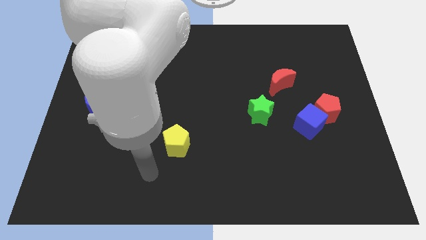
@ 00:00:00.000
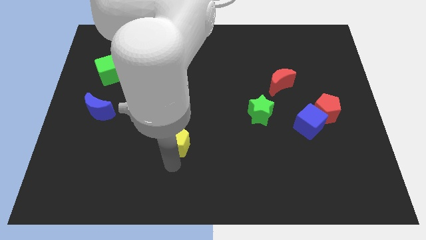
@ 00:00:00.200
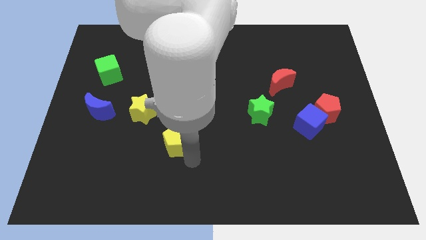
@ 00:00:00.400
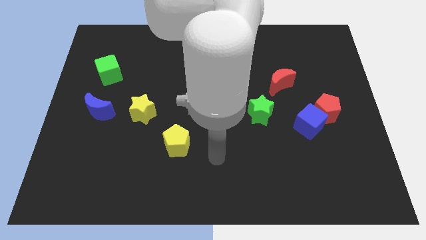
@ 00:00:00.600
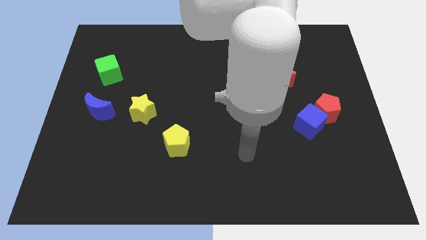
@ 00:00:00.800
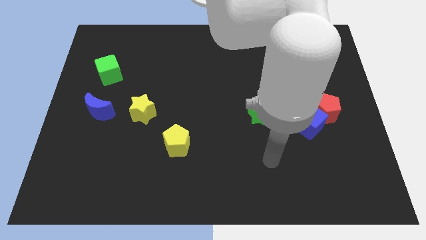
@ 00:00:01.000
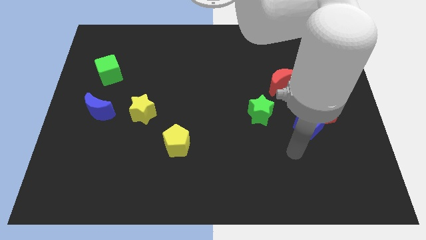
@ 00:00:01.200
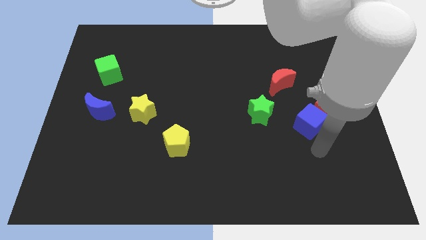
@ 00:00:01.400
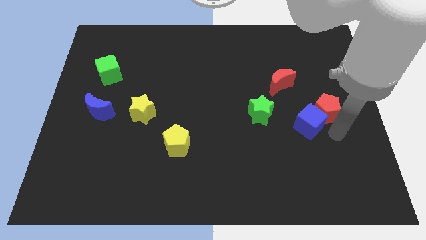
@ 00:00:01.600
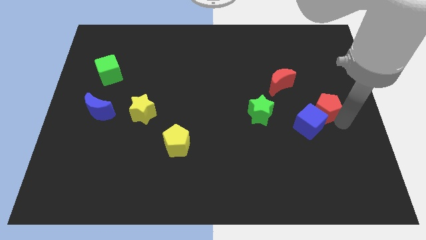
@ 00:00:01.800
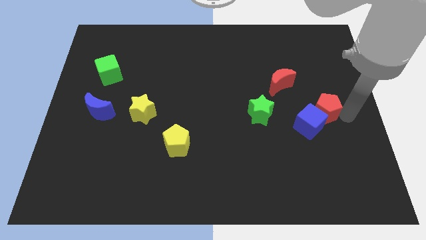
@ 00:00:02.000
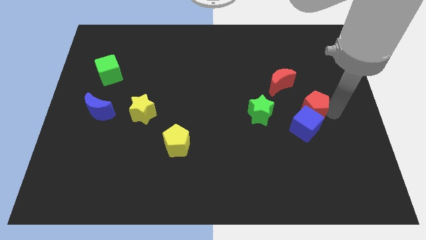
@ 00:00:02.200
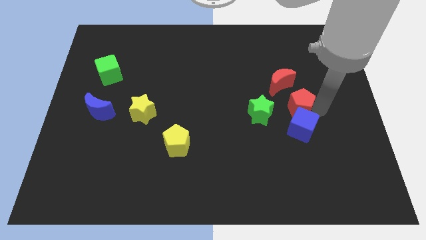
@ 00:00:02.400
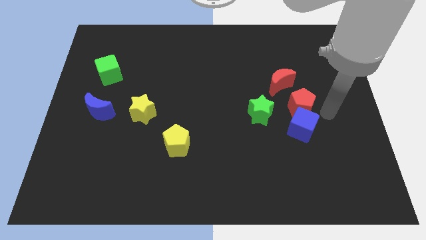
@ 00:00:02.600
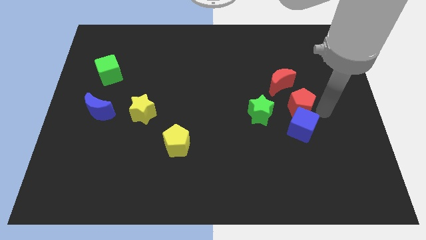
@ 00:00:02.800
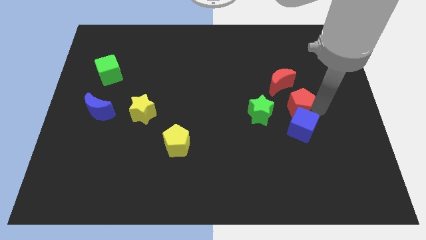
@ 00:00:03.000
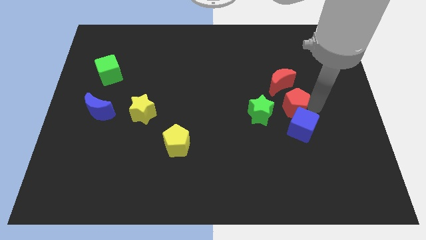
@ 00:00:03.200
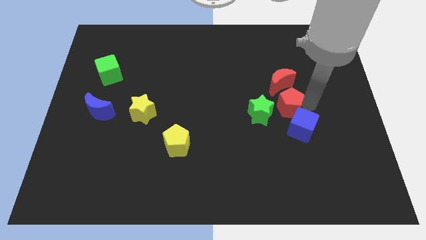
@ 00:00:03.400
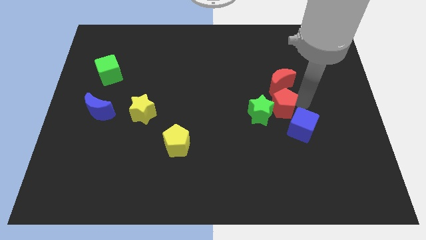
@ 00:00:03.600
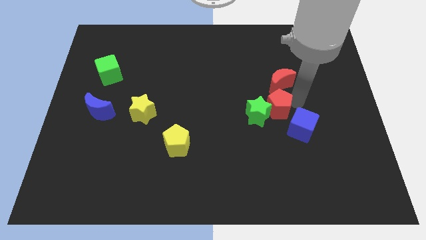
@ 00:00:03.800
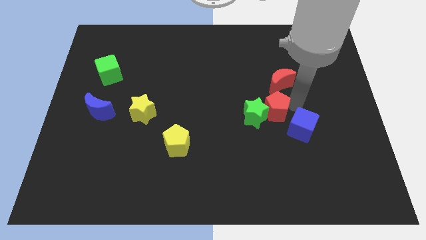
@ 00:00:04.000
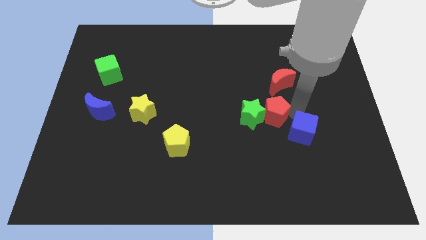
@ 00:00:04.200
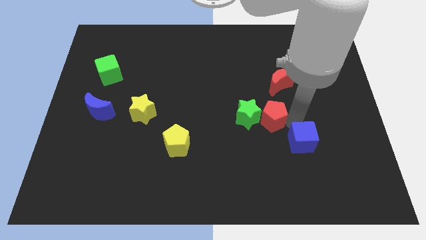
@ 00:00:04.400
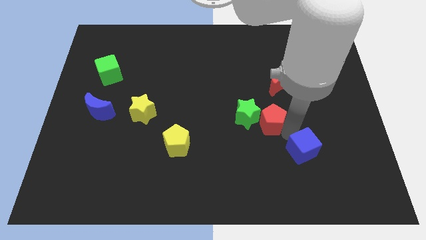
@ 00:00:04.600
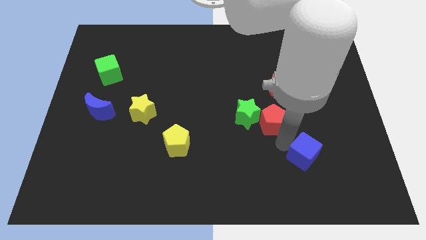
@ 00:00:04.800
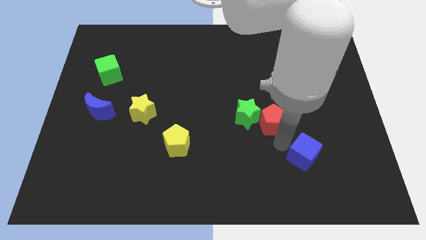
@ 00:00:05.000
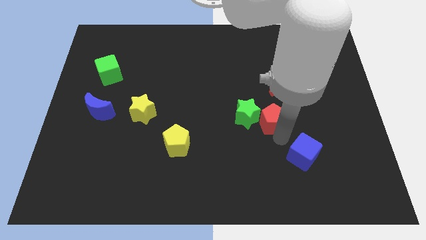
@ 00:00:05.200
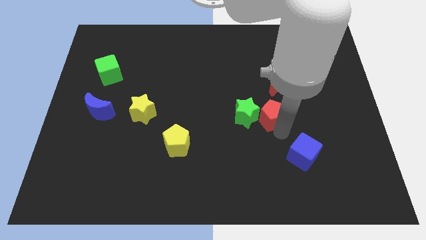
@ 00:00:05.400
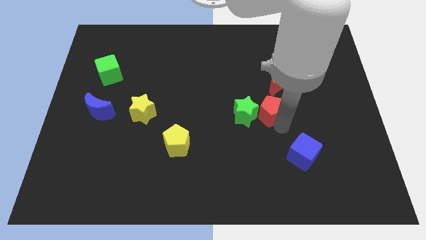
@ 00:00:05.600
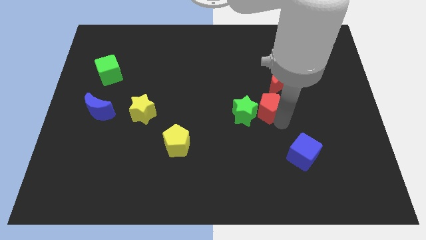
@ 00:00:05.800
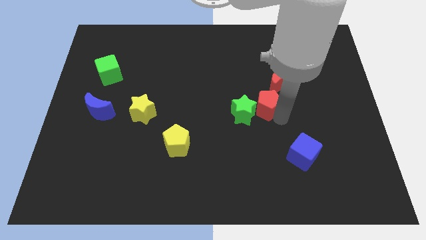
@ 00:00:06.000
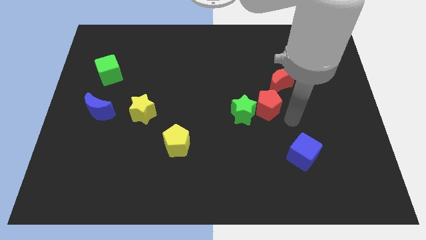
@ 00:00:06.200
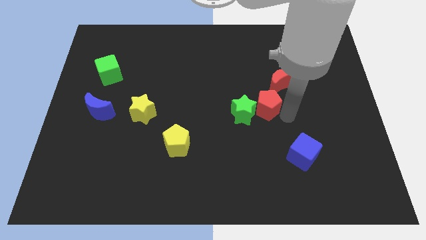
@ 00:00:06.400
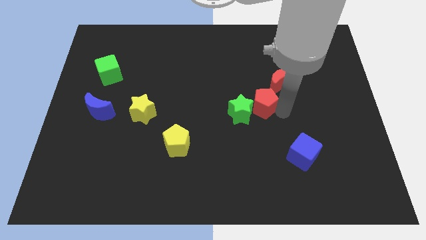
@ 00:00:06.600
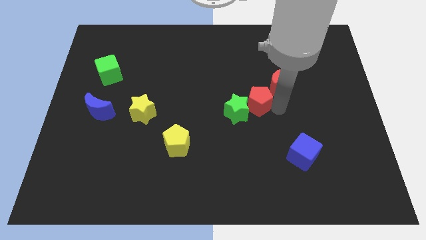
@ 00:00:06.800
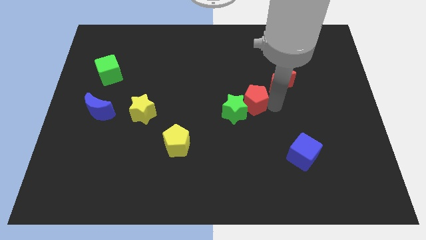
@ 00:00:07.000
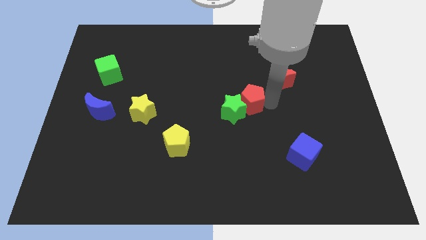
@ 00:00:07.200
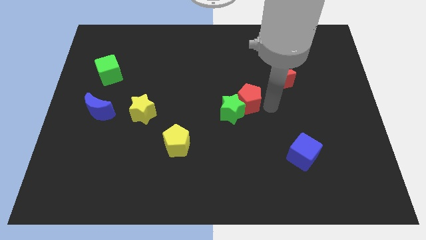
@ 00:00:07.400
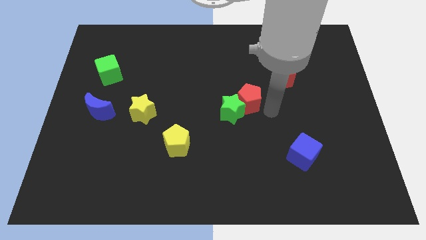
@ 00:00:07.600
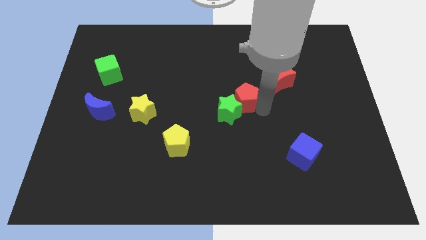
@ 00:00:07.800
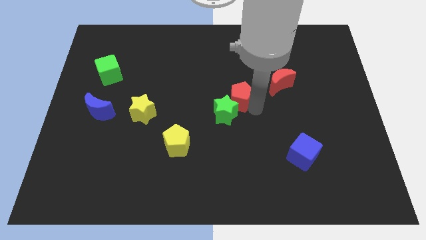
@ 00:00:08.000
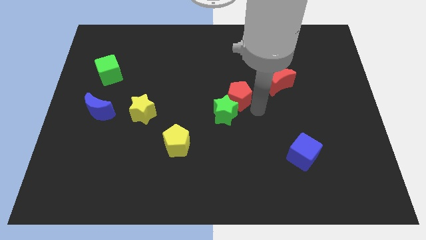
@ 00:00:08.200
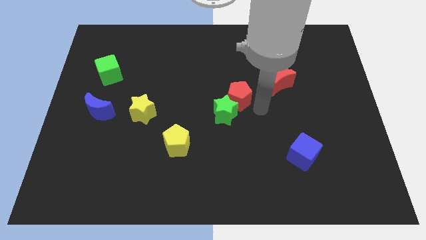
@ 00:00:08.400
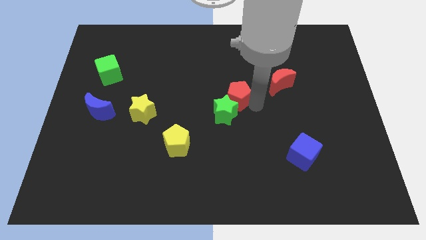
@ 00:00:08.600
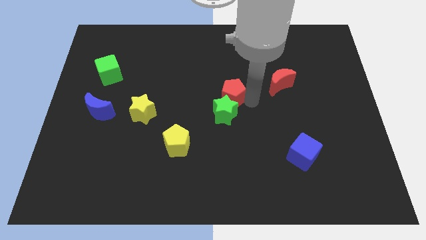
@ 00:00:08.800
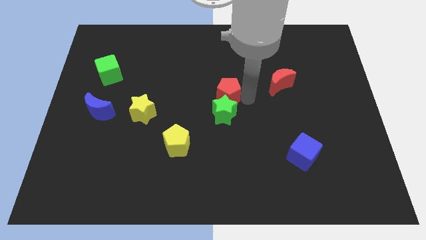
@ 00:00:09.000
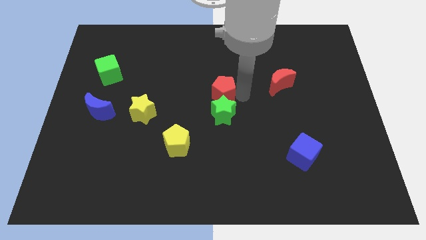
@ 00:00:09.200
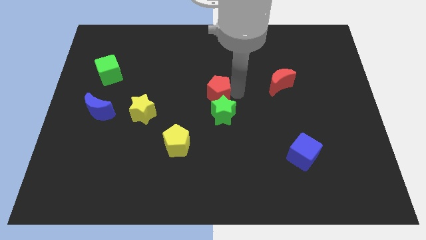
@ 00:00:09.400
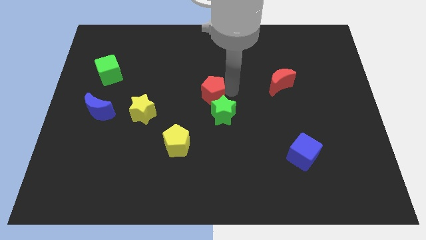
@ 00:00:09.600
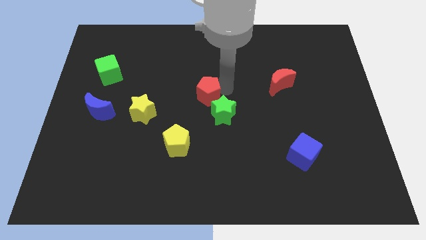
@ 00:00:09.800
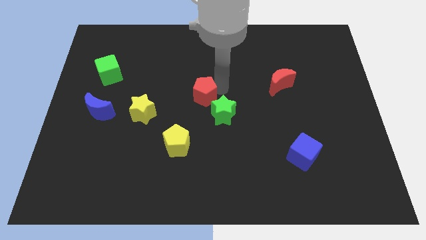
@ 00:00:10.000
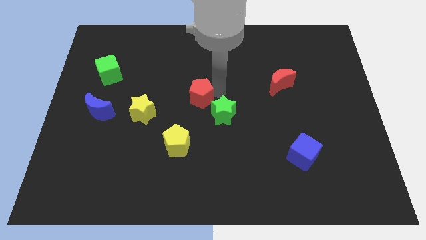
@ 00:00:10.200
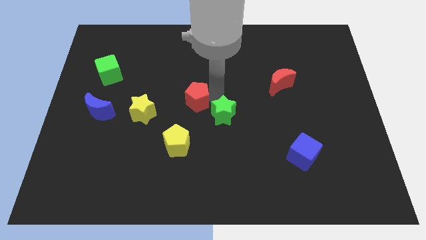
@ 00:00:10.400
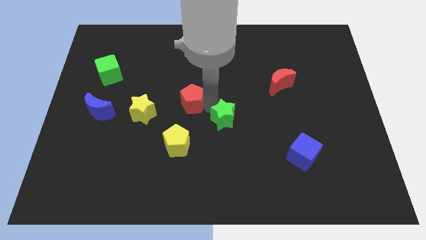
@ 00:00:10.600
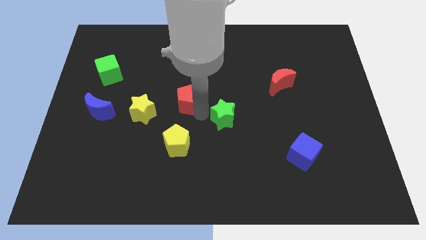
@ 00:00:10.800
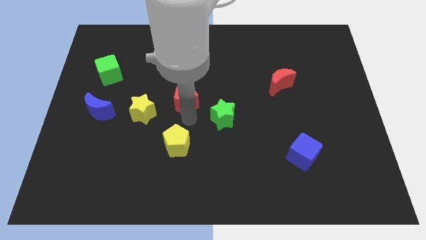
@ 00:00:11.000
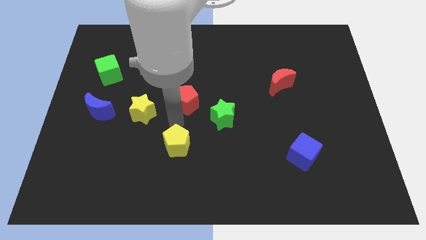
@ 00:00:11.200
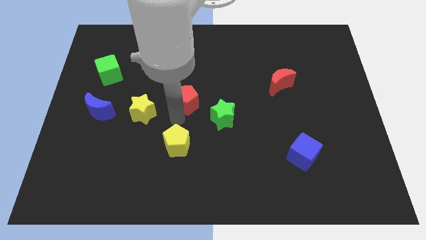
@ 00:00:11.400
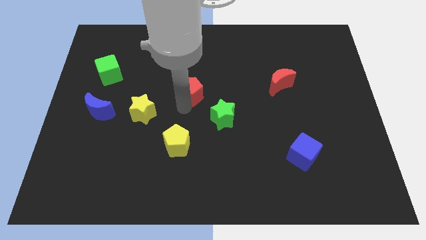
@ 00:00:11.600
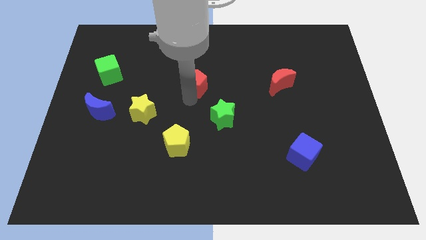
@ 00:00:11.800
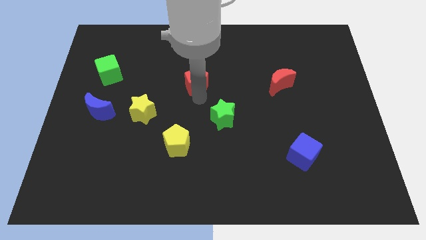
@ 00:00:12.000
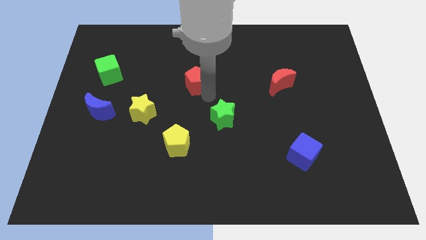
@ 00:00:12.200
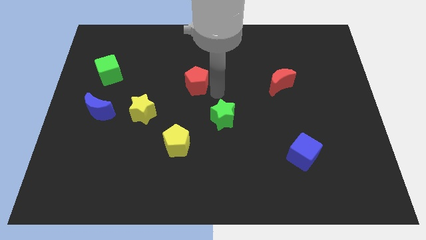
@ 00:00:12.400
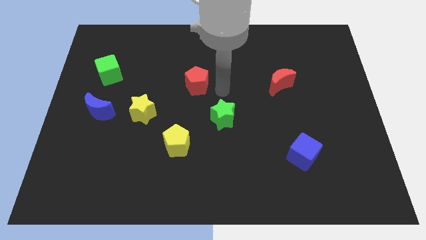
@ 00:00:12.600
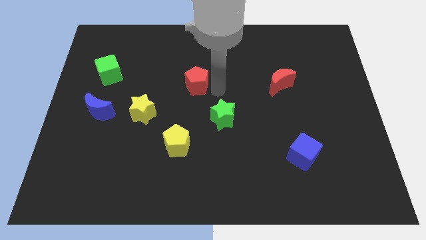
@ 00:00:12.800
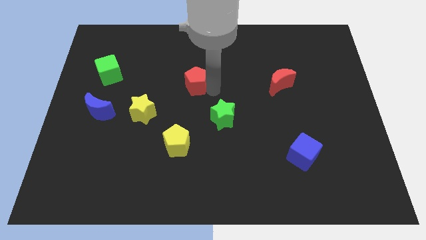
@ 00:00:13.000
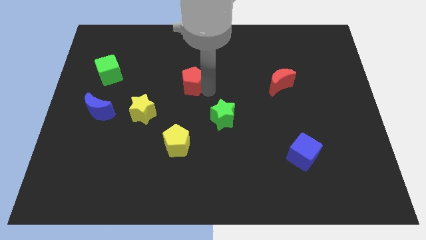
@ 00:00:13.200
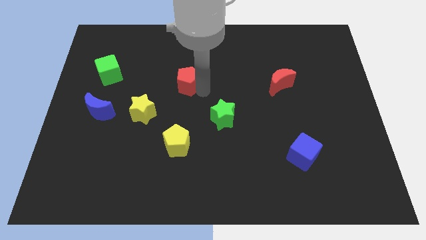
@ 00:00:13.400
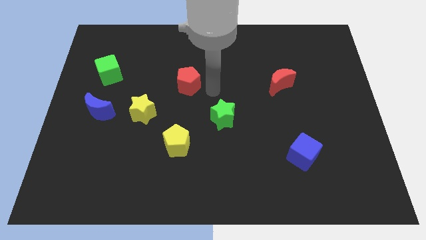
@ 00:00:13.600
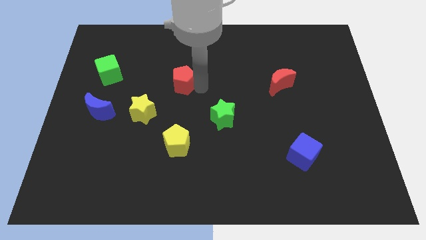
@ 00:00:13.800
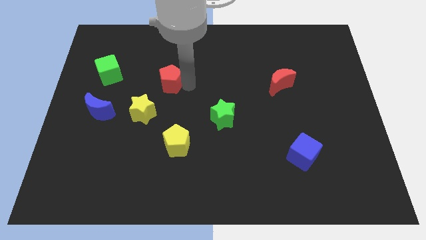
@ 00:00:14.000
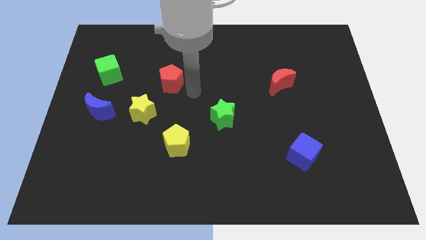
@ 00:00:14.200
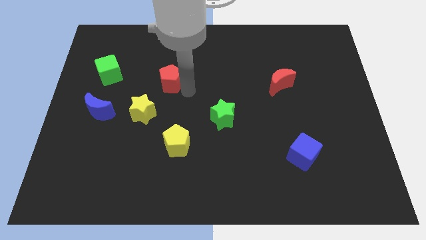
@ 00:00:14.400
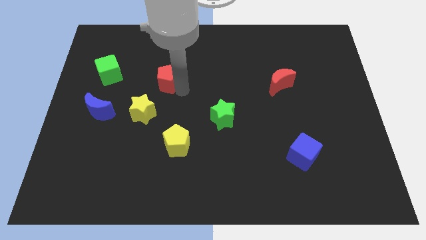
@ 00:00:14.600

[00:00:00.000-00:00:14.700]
move the red pentagon just right of the green cube
